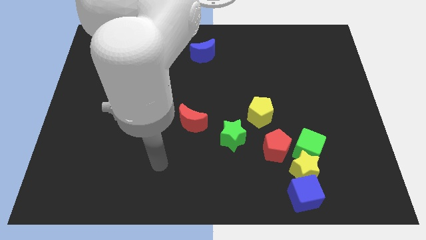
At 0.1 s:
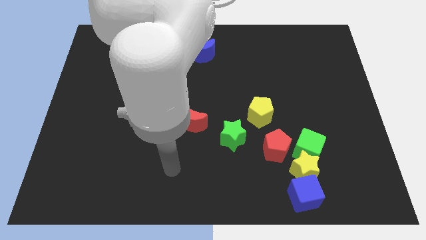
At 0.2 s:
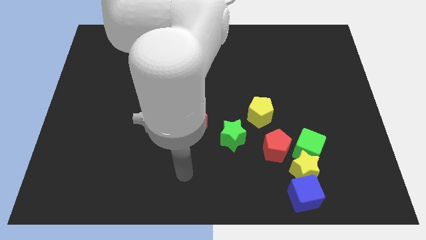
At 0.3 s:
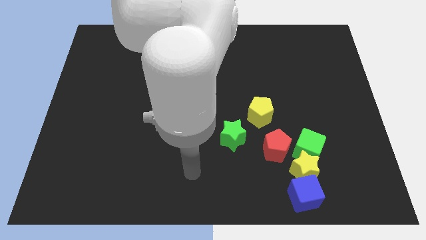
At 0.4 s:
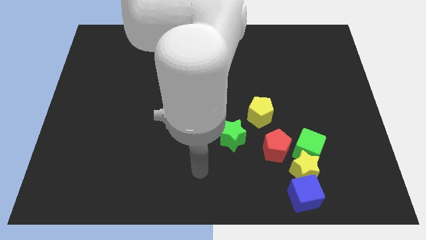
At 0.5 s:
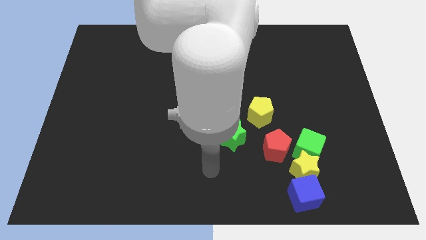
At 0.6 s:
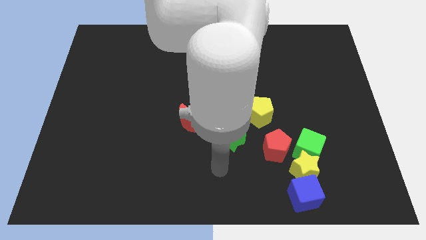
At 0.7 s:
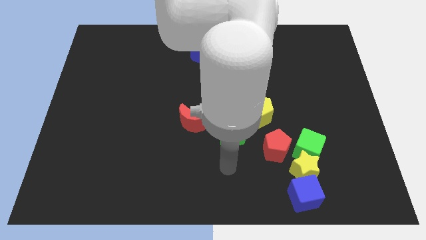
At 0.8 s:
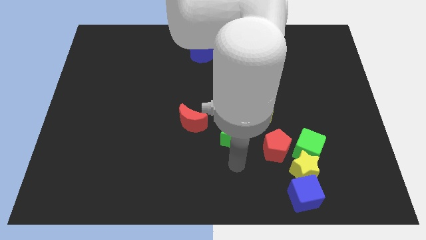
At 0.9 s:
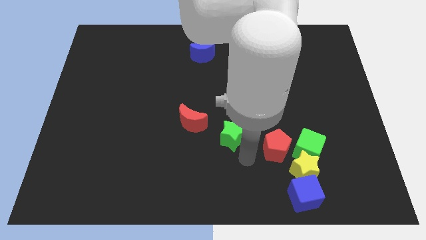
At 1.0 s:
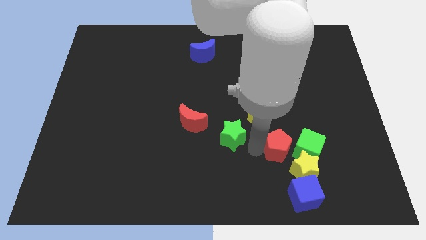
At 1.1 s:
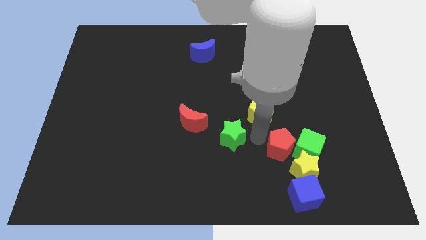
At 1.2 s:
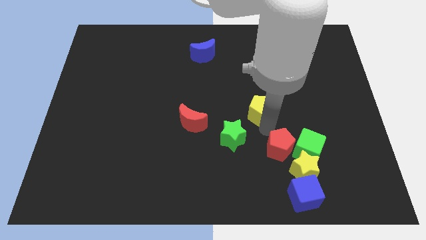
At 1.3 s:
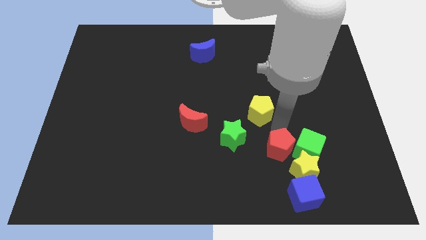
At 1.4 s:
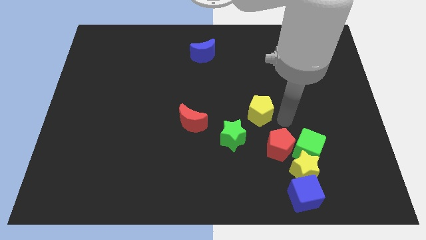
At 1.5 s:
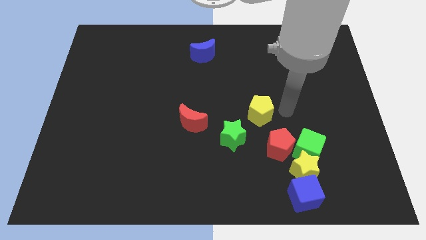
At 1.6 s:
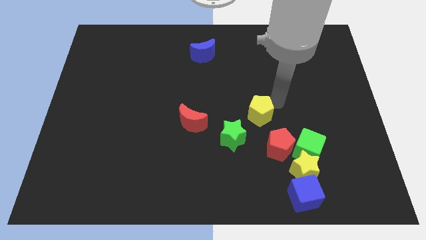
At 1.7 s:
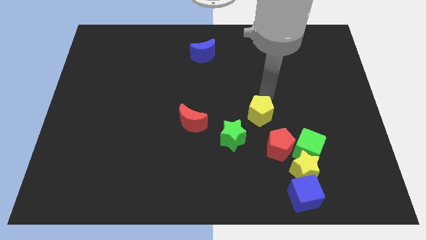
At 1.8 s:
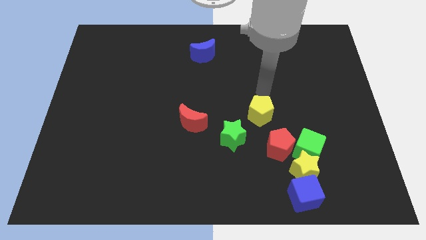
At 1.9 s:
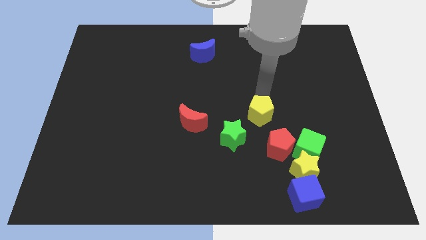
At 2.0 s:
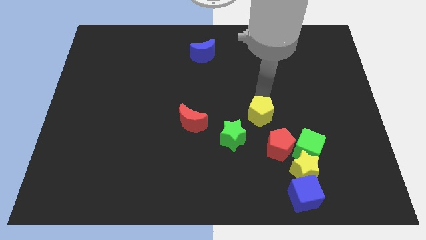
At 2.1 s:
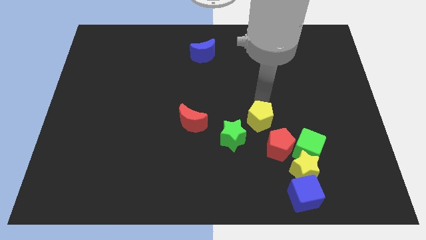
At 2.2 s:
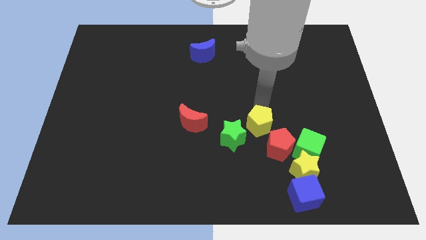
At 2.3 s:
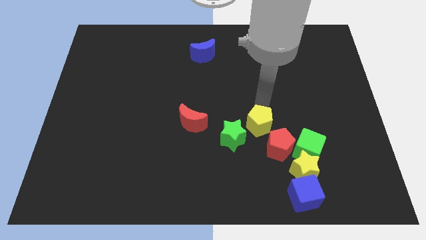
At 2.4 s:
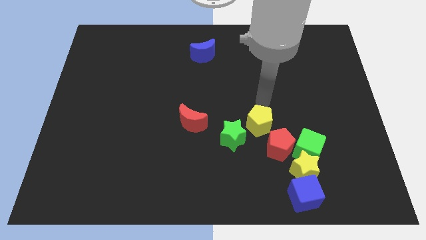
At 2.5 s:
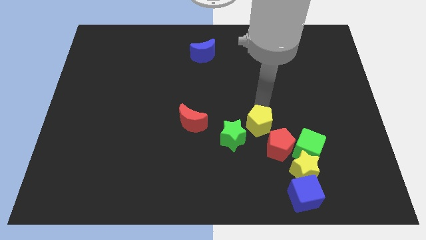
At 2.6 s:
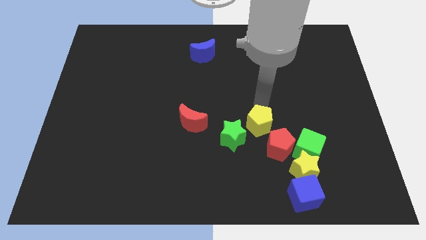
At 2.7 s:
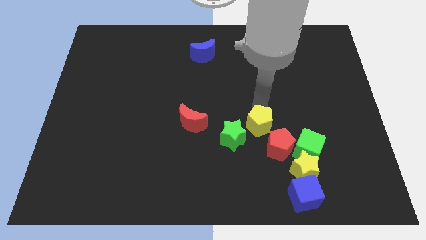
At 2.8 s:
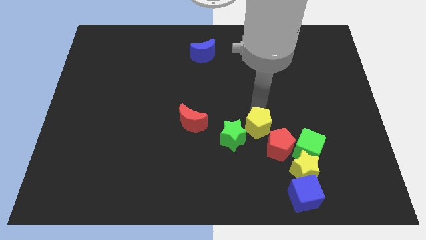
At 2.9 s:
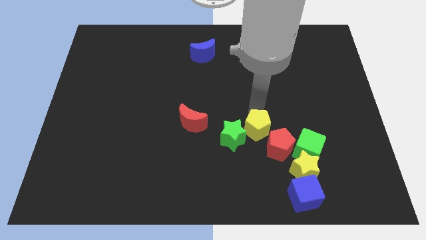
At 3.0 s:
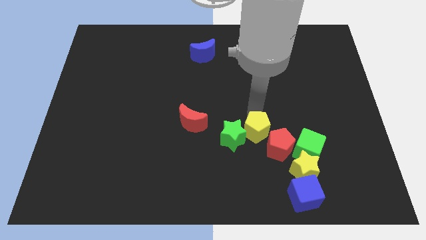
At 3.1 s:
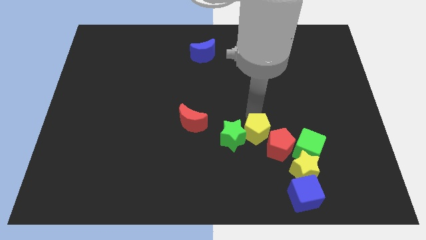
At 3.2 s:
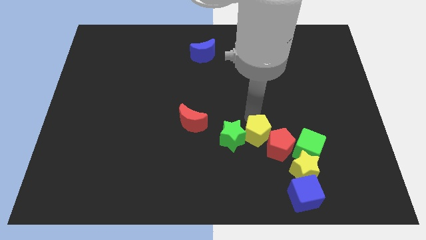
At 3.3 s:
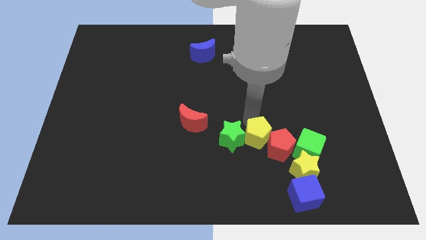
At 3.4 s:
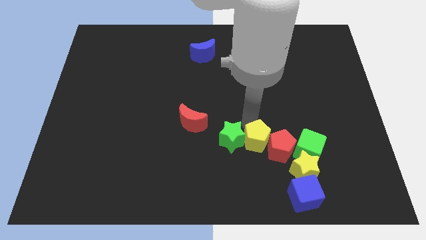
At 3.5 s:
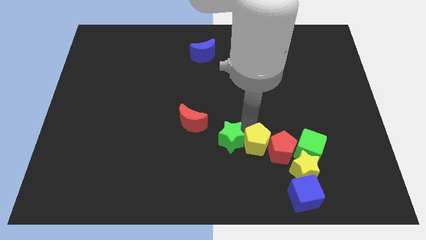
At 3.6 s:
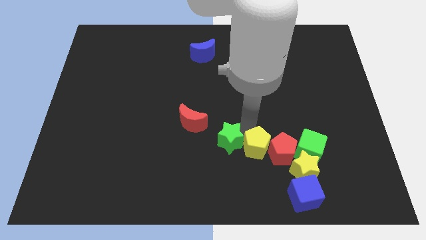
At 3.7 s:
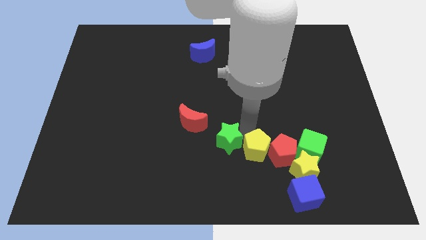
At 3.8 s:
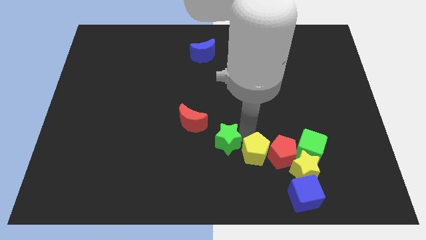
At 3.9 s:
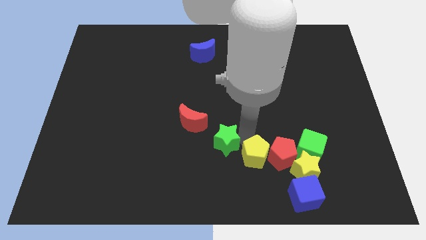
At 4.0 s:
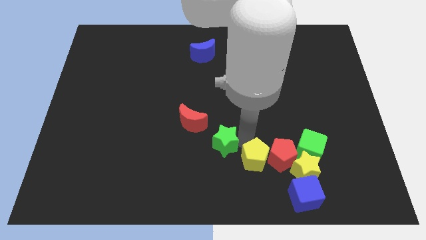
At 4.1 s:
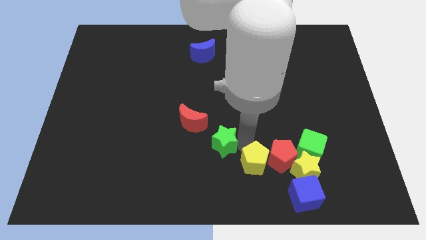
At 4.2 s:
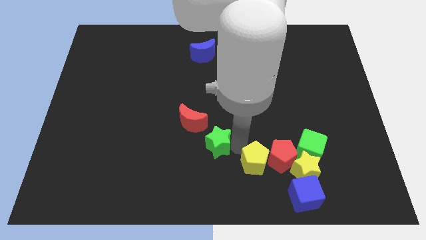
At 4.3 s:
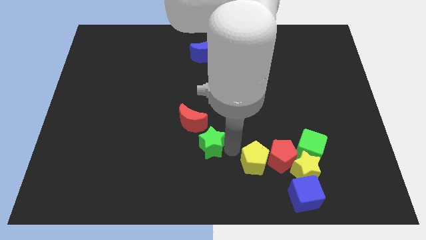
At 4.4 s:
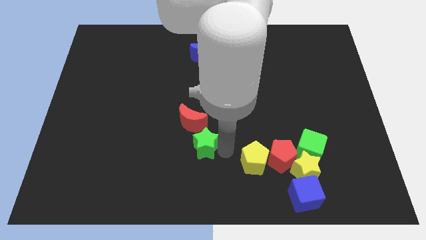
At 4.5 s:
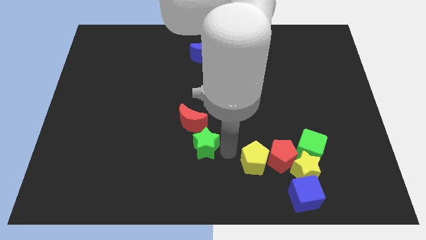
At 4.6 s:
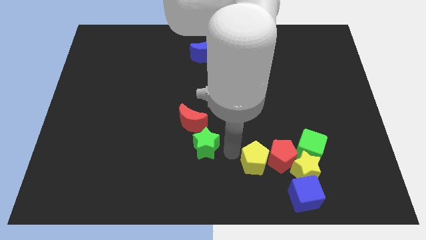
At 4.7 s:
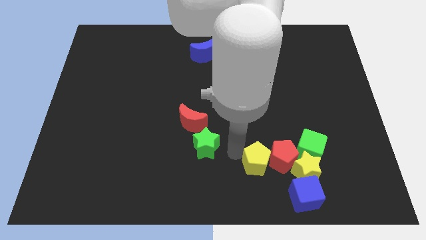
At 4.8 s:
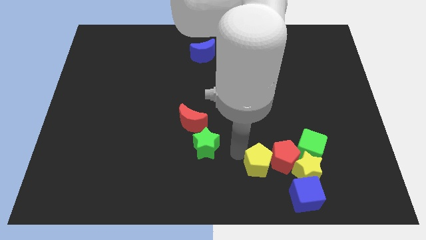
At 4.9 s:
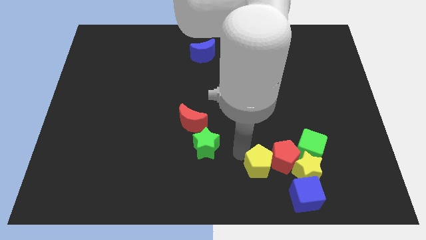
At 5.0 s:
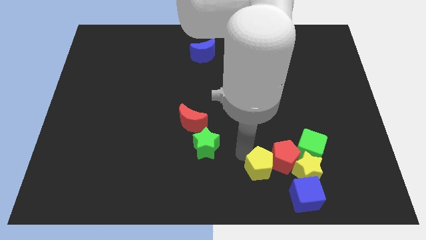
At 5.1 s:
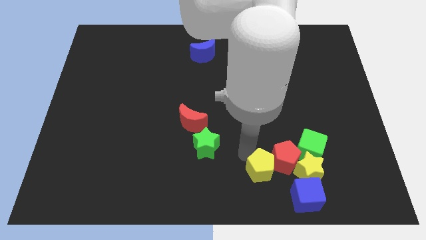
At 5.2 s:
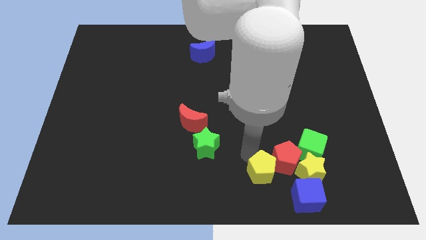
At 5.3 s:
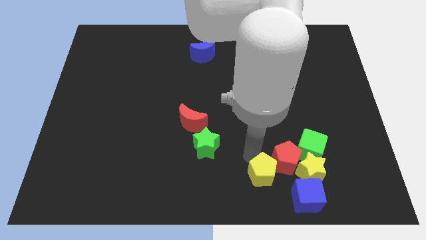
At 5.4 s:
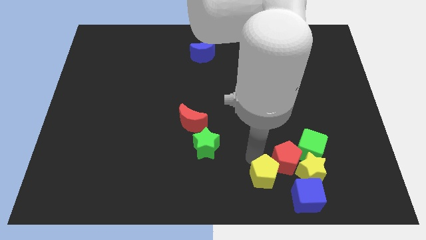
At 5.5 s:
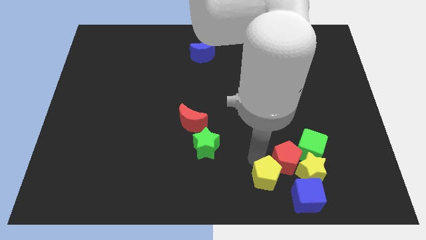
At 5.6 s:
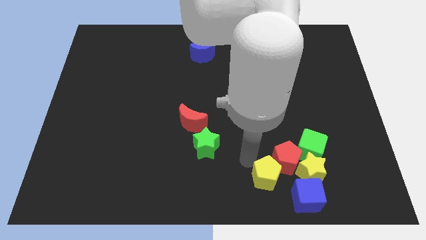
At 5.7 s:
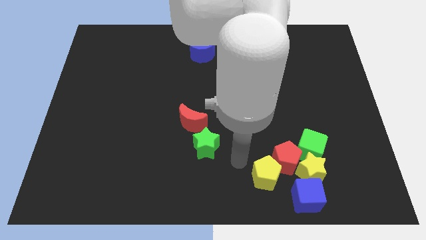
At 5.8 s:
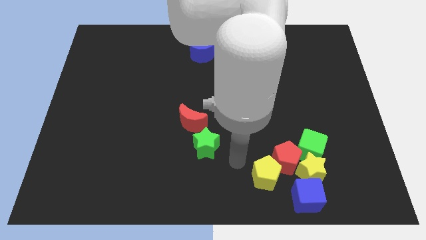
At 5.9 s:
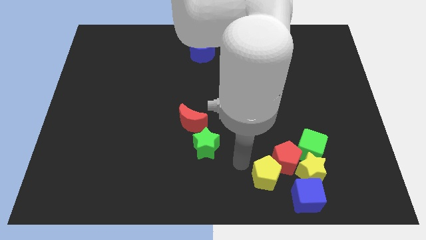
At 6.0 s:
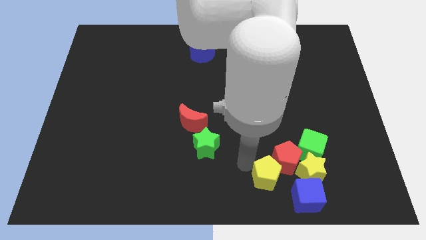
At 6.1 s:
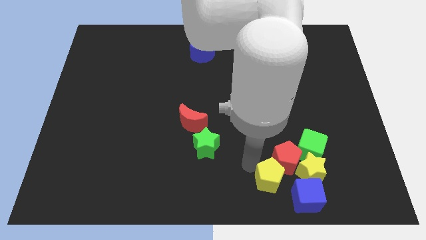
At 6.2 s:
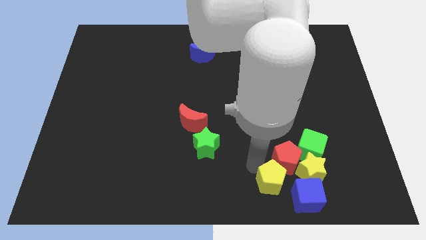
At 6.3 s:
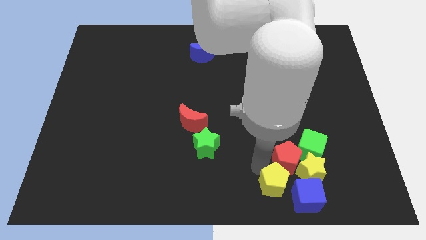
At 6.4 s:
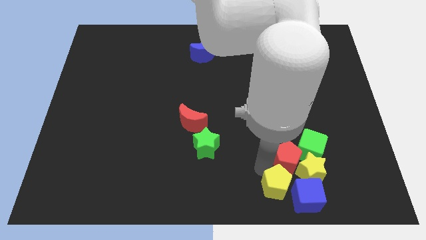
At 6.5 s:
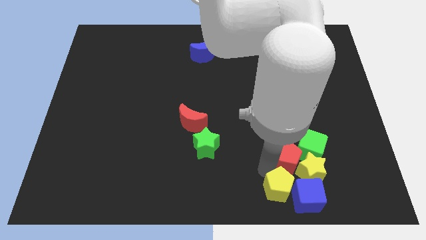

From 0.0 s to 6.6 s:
slide the yellow pentagon towards the blue cube
